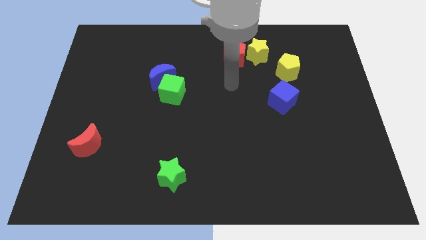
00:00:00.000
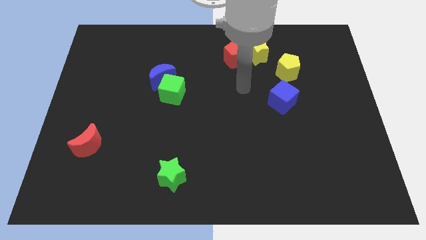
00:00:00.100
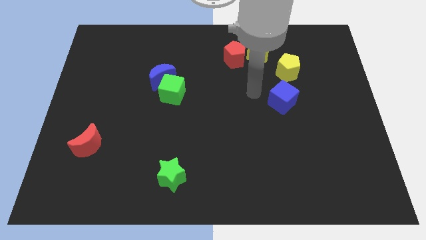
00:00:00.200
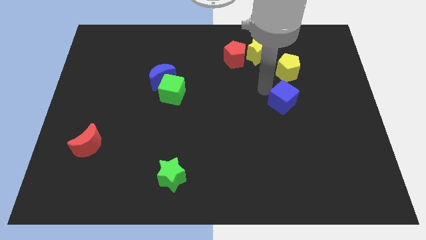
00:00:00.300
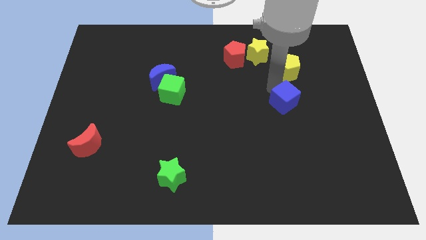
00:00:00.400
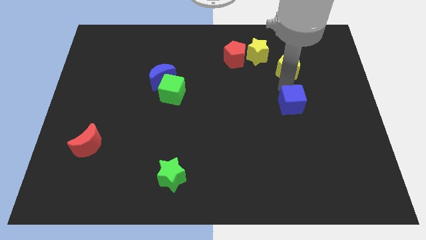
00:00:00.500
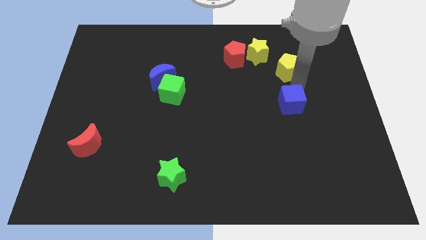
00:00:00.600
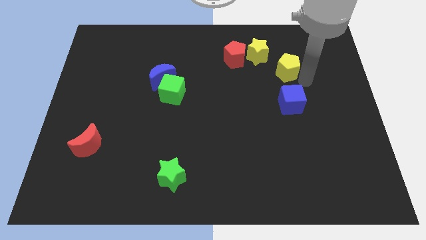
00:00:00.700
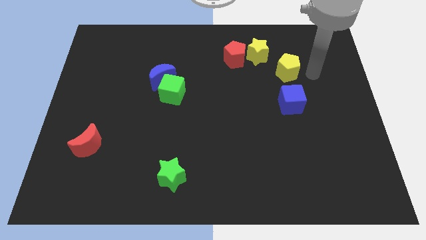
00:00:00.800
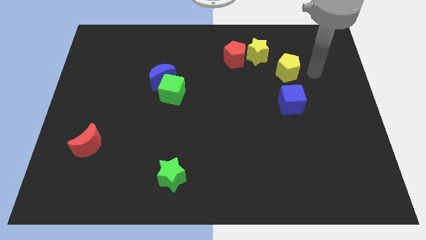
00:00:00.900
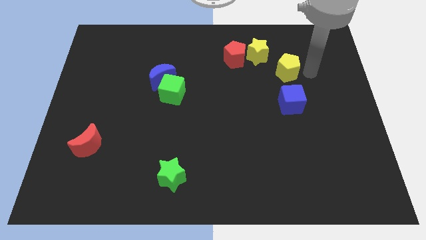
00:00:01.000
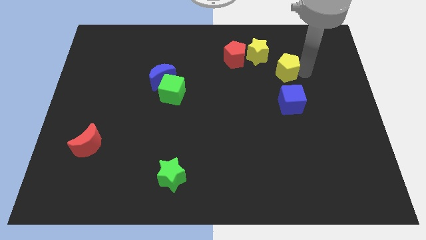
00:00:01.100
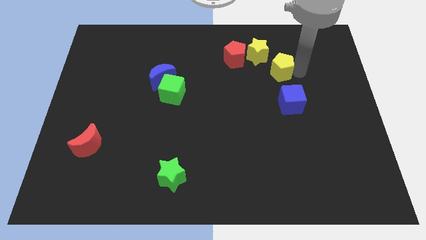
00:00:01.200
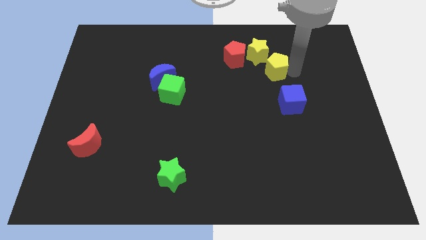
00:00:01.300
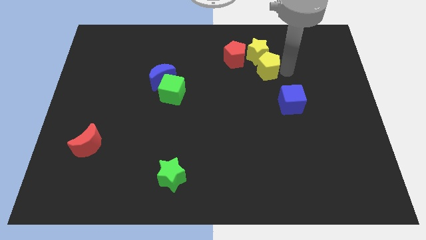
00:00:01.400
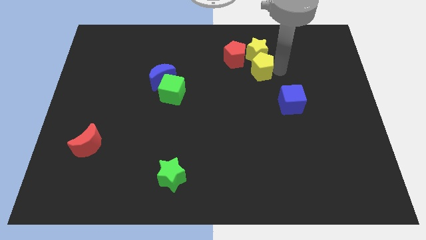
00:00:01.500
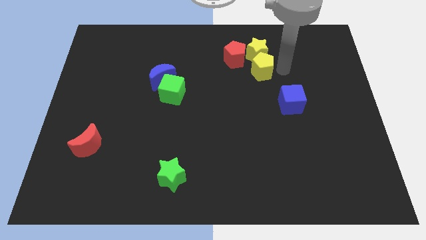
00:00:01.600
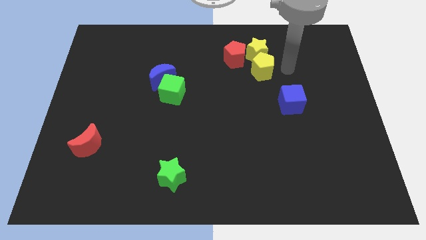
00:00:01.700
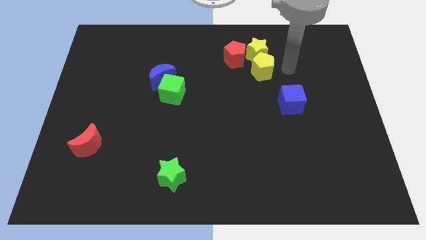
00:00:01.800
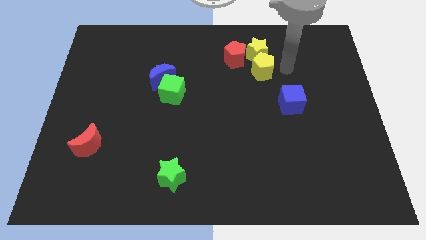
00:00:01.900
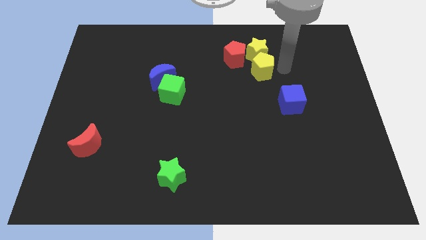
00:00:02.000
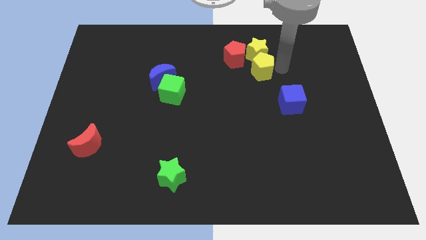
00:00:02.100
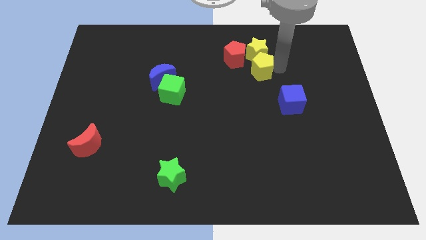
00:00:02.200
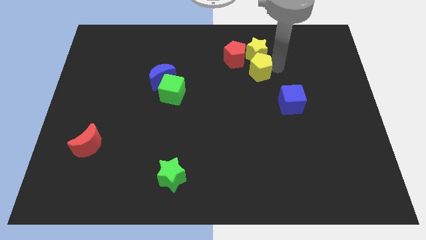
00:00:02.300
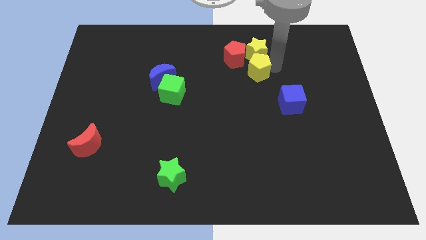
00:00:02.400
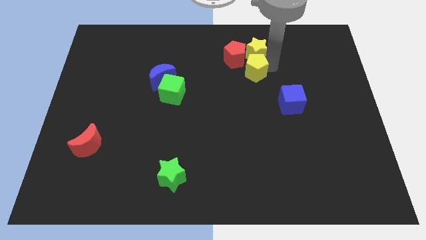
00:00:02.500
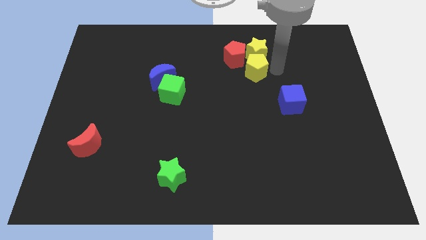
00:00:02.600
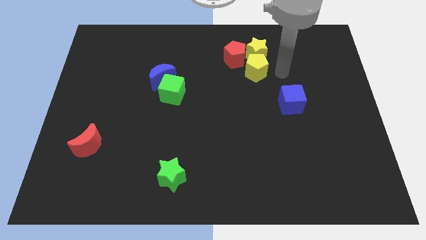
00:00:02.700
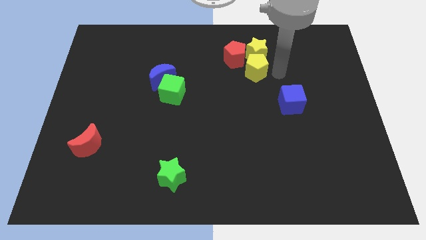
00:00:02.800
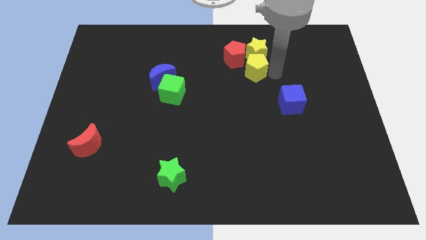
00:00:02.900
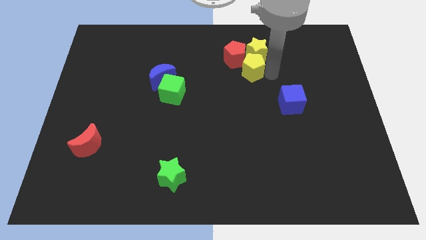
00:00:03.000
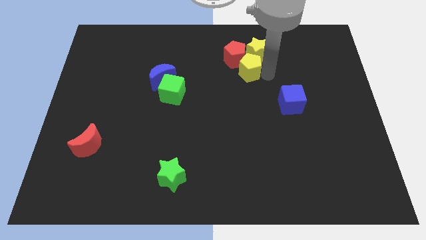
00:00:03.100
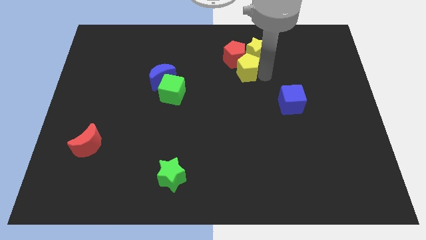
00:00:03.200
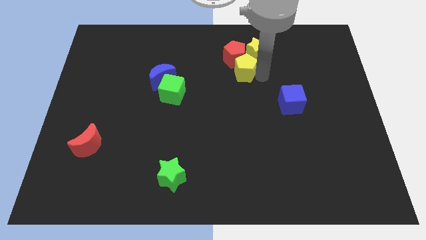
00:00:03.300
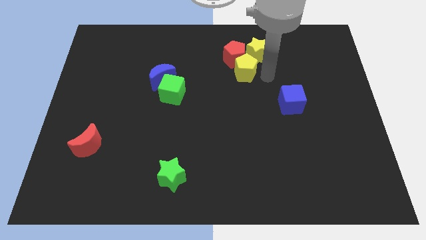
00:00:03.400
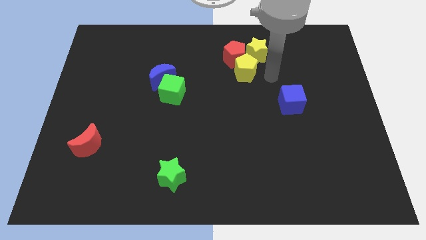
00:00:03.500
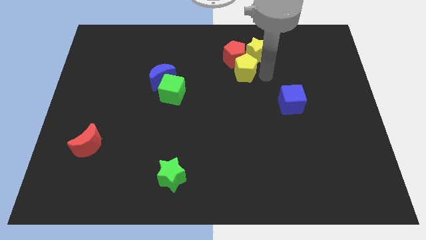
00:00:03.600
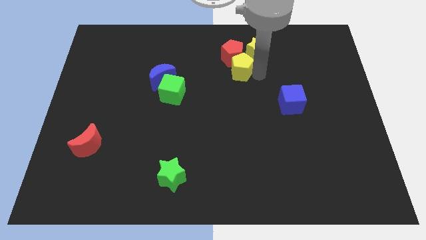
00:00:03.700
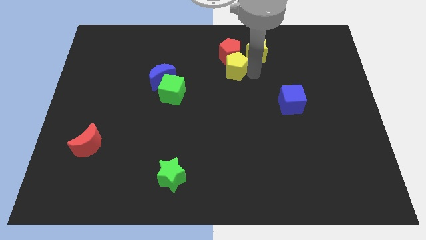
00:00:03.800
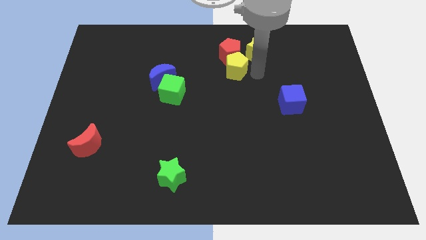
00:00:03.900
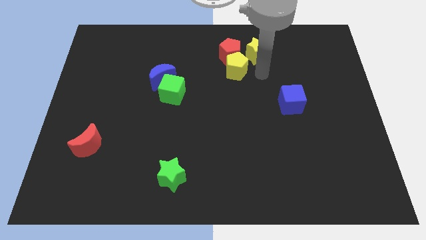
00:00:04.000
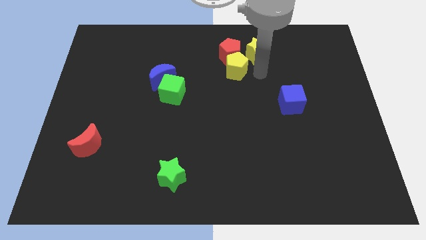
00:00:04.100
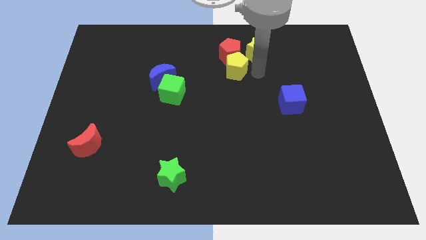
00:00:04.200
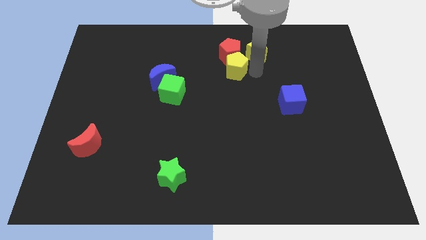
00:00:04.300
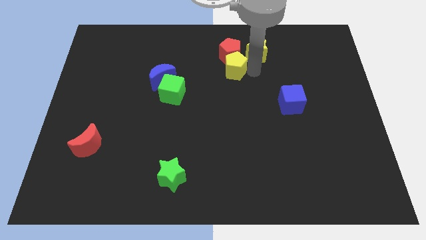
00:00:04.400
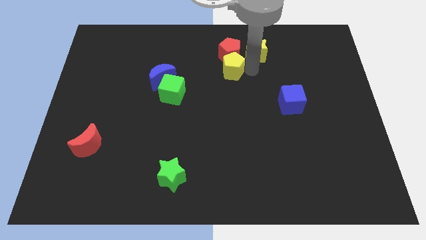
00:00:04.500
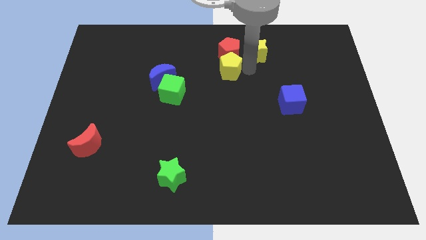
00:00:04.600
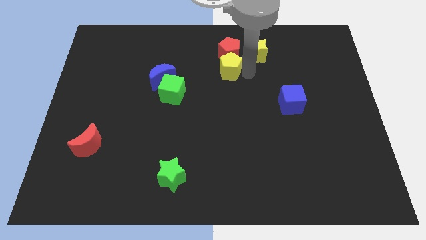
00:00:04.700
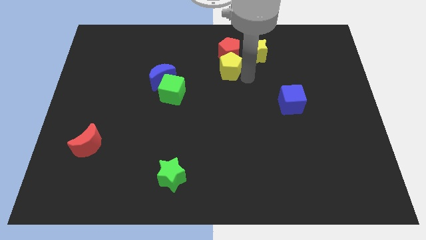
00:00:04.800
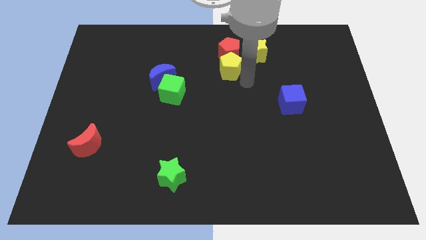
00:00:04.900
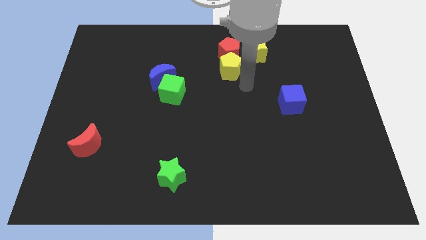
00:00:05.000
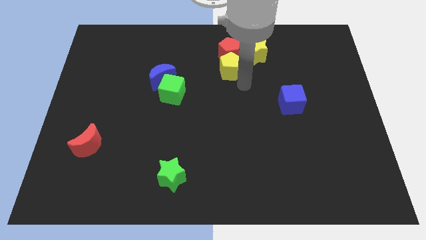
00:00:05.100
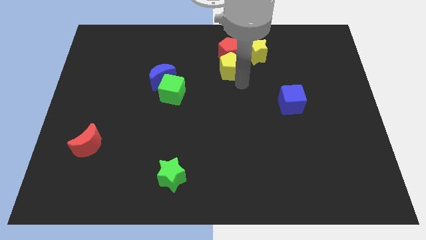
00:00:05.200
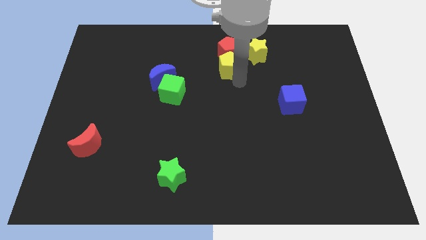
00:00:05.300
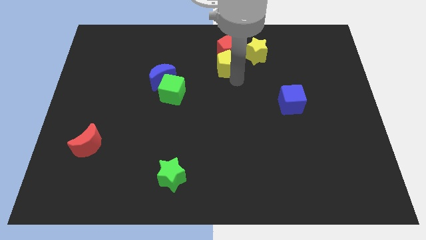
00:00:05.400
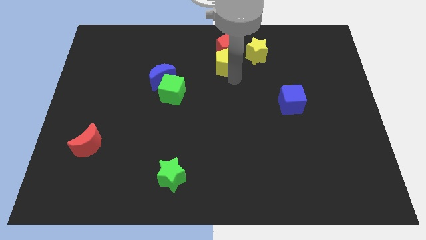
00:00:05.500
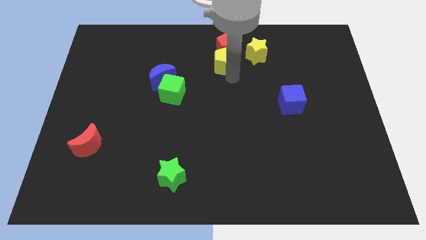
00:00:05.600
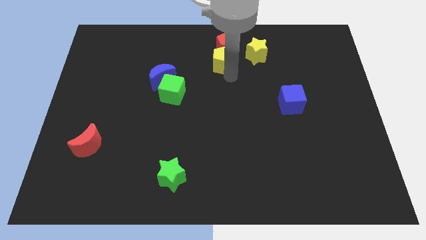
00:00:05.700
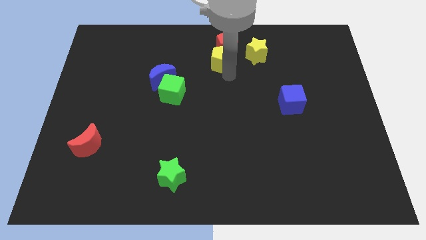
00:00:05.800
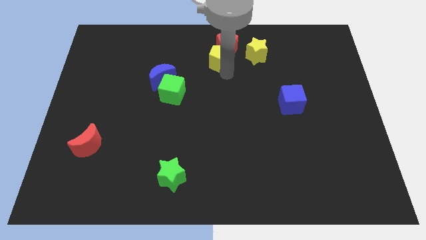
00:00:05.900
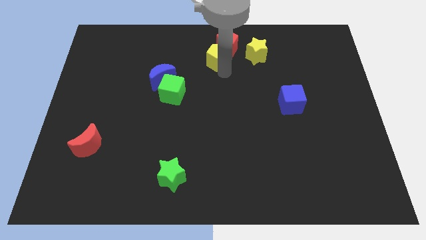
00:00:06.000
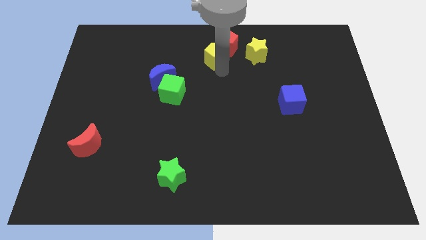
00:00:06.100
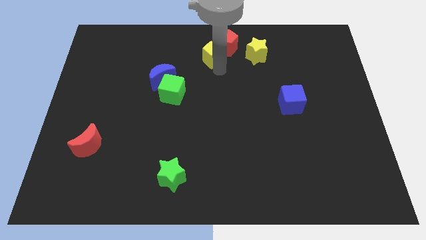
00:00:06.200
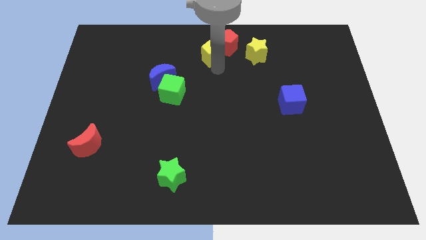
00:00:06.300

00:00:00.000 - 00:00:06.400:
move the yellow pentagon to the top side
